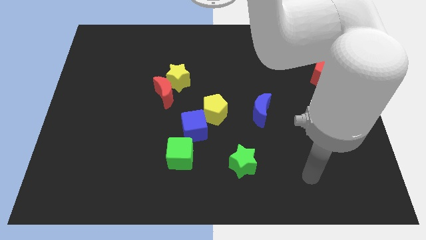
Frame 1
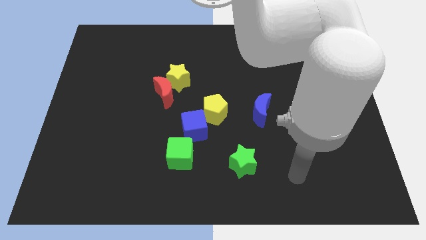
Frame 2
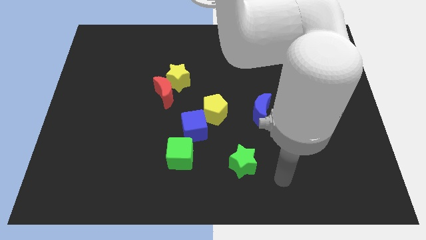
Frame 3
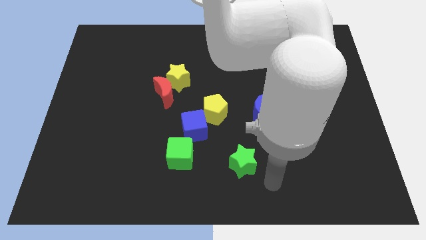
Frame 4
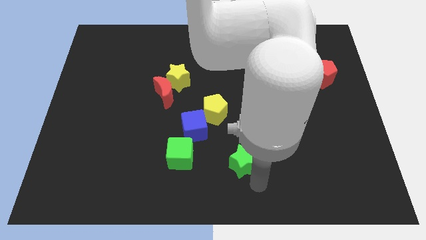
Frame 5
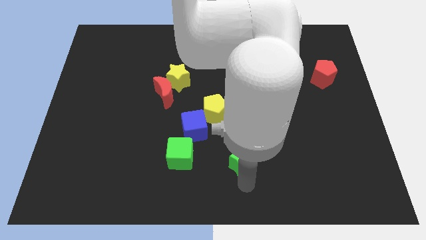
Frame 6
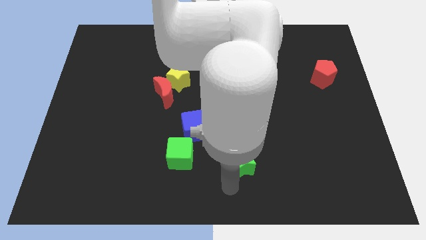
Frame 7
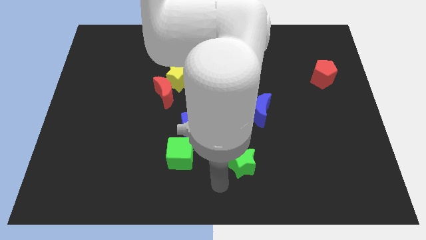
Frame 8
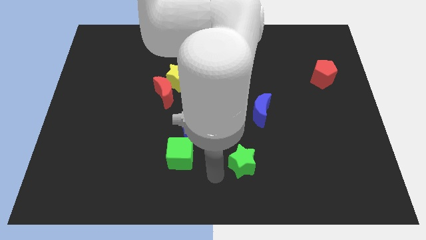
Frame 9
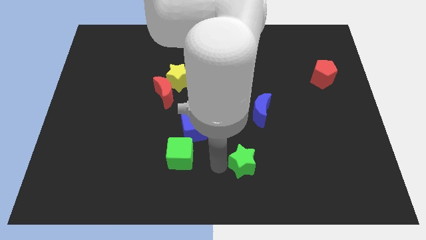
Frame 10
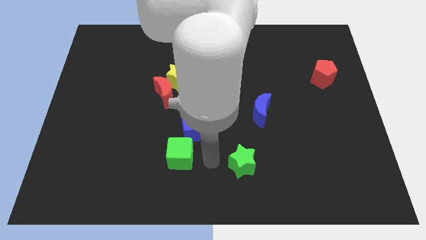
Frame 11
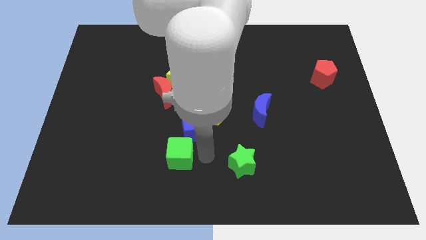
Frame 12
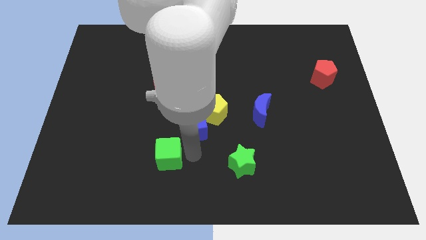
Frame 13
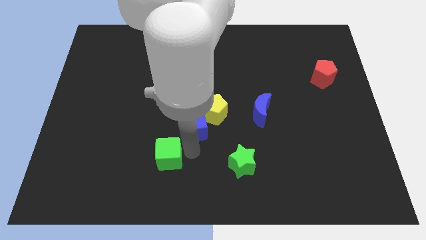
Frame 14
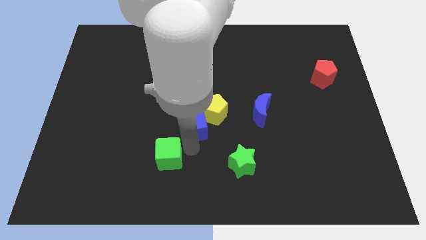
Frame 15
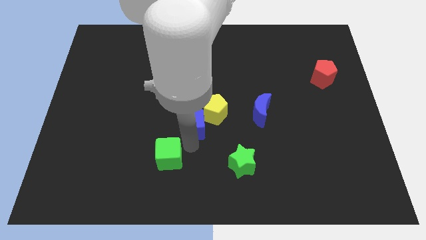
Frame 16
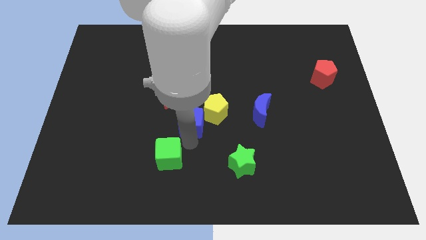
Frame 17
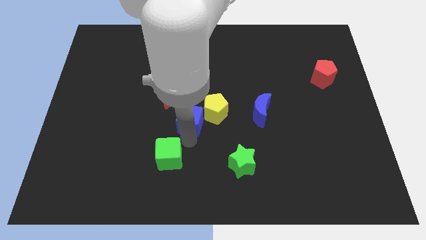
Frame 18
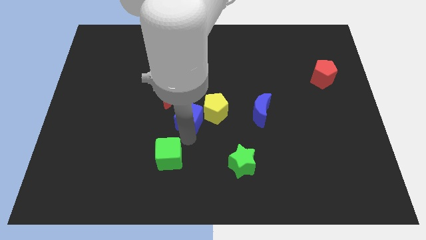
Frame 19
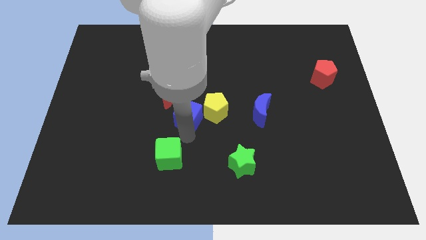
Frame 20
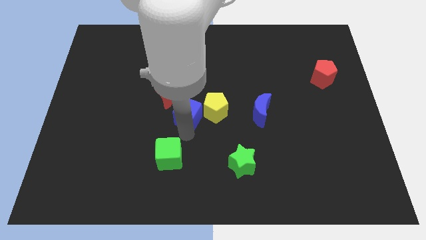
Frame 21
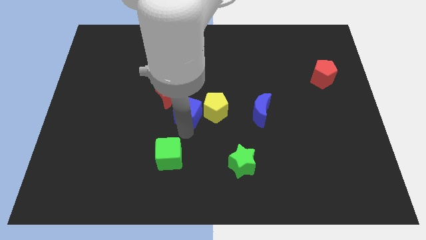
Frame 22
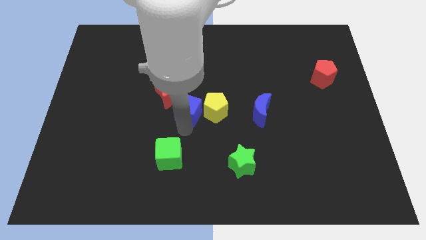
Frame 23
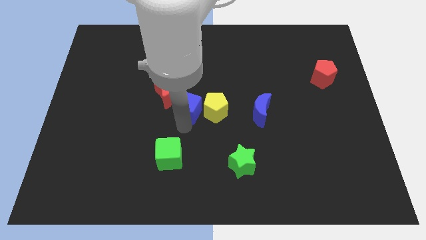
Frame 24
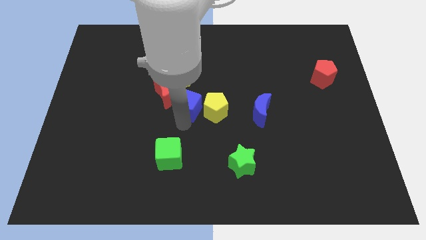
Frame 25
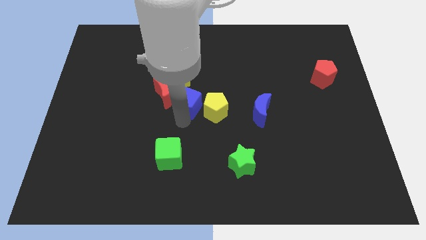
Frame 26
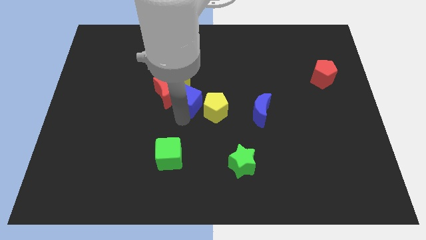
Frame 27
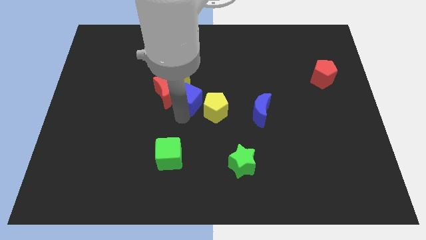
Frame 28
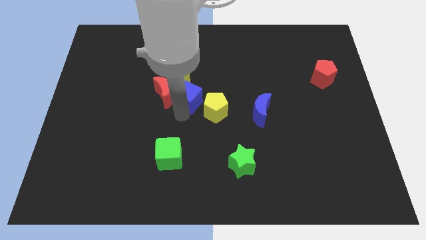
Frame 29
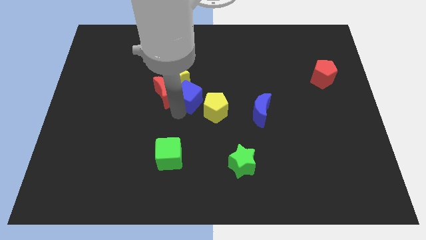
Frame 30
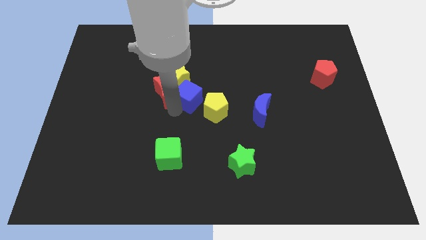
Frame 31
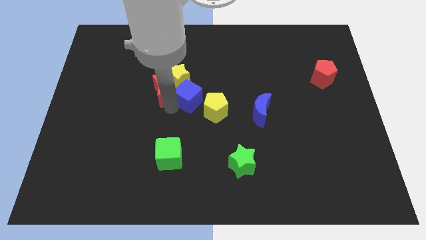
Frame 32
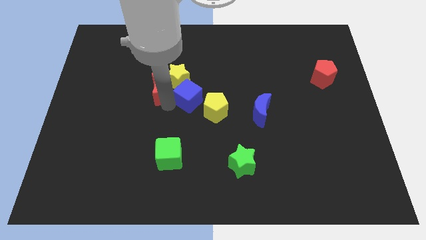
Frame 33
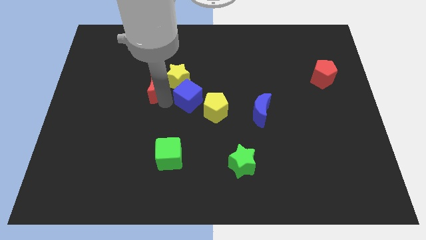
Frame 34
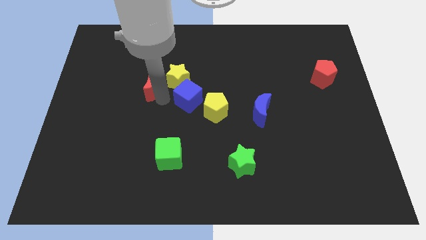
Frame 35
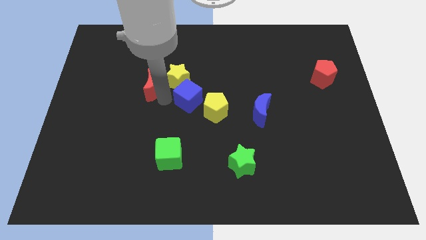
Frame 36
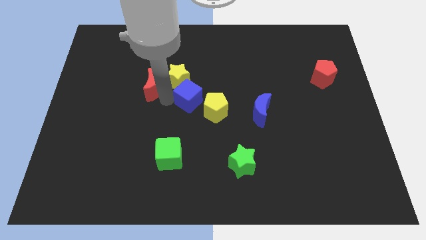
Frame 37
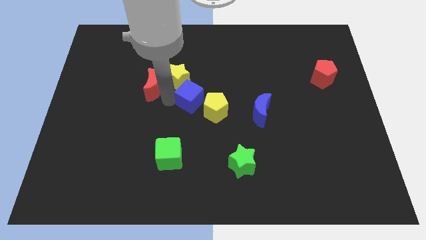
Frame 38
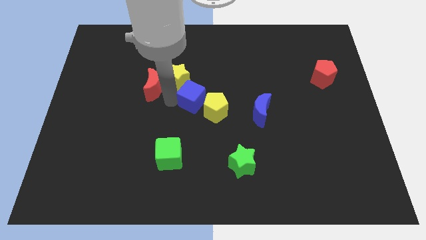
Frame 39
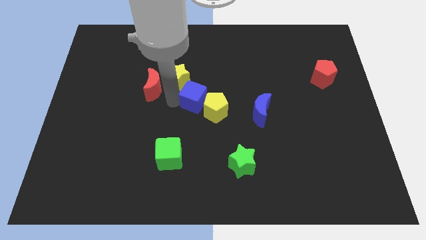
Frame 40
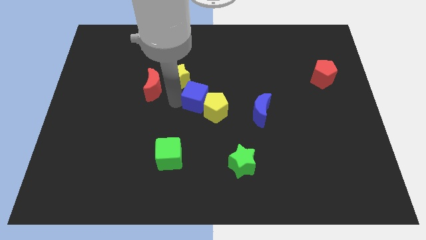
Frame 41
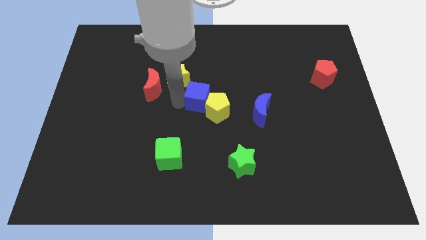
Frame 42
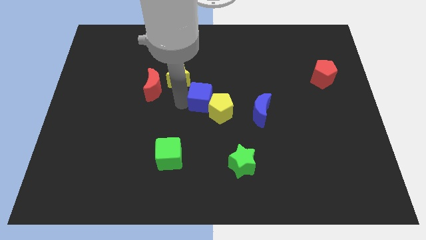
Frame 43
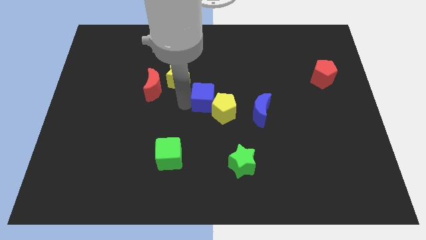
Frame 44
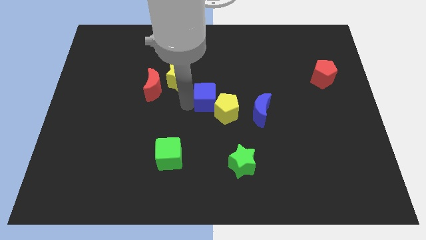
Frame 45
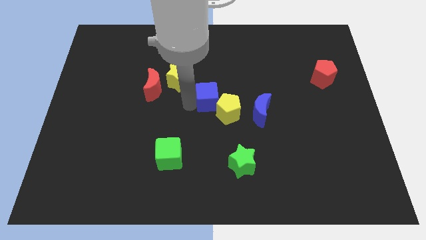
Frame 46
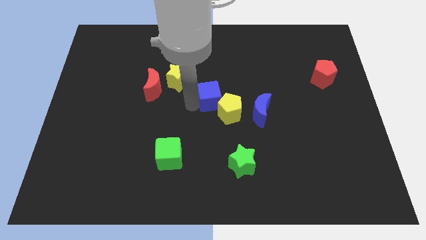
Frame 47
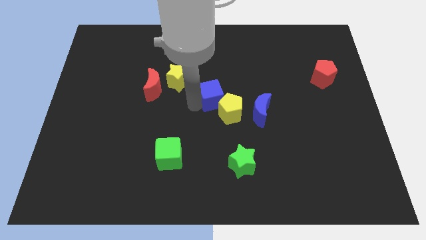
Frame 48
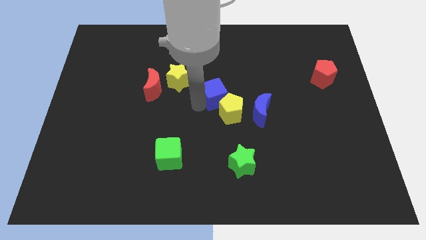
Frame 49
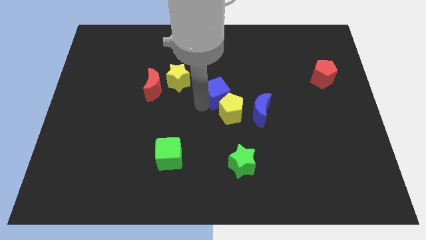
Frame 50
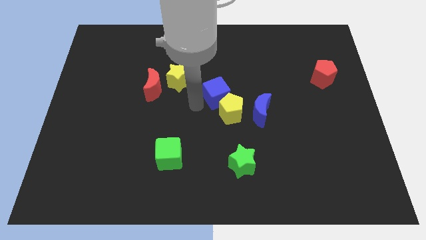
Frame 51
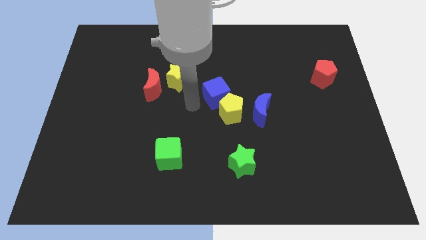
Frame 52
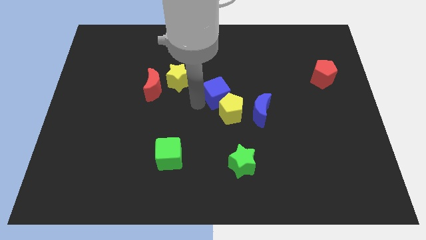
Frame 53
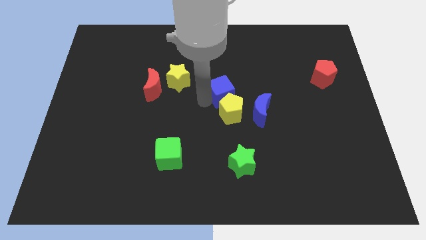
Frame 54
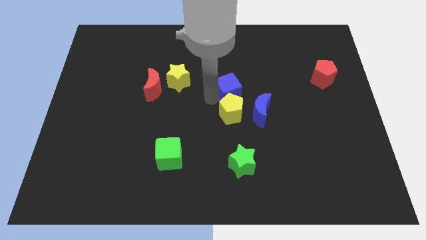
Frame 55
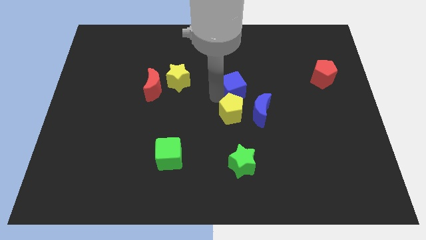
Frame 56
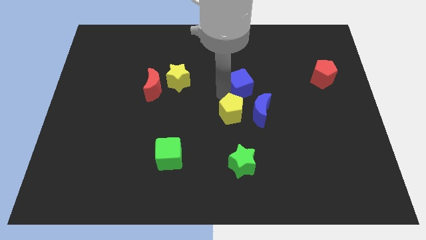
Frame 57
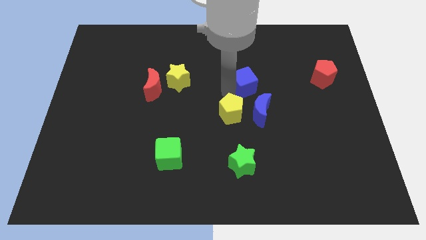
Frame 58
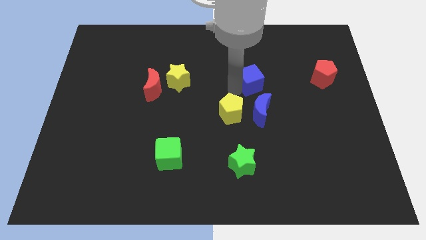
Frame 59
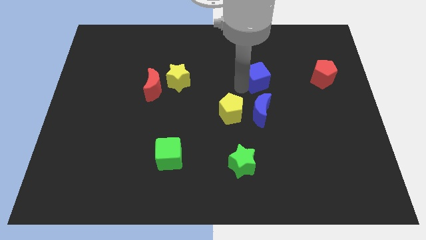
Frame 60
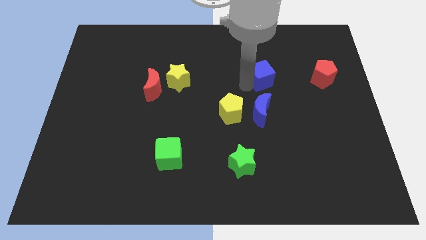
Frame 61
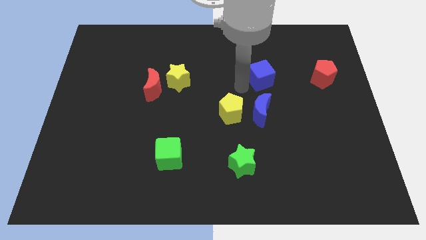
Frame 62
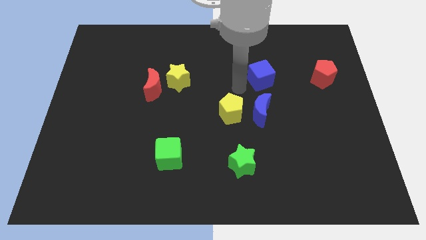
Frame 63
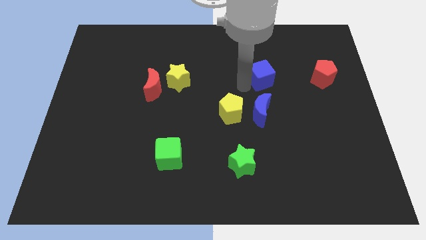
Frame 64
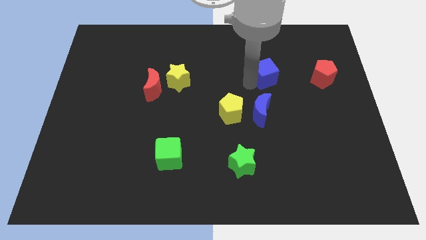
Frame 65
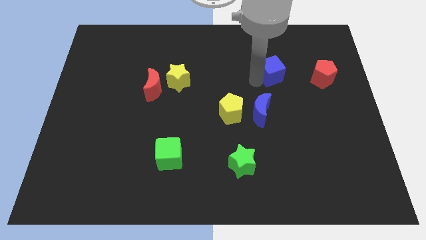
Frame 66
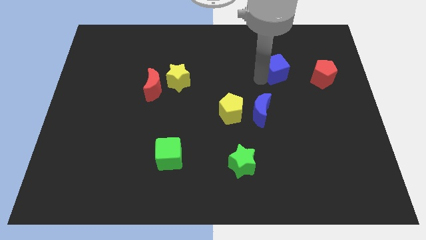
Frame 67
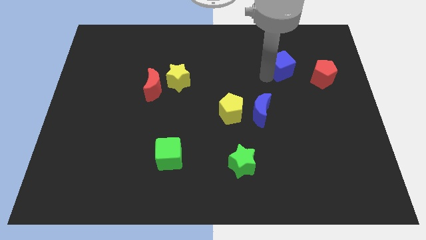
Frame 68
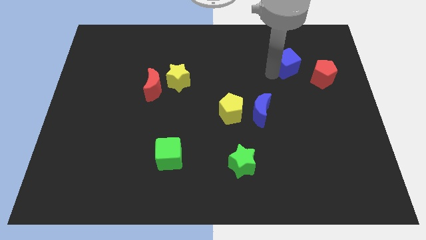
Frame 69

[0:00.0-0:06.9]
move the blue cube to the top left side of the red pentagon

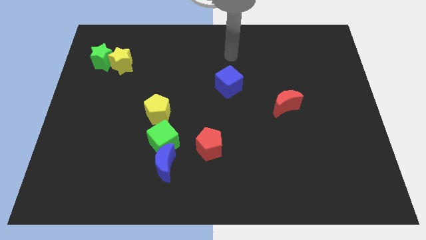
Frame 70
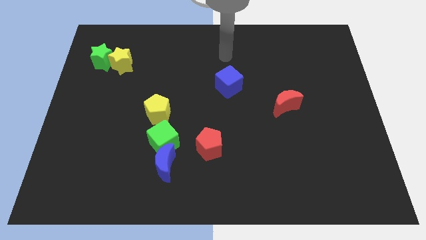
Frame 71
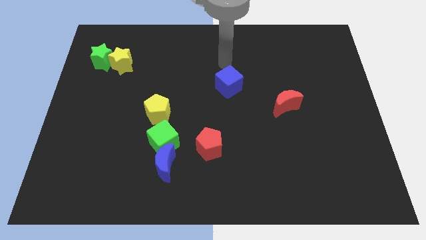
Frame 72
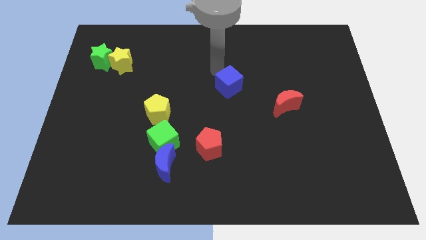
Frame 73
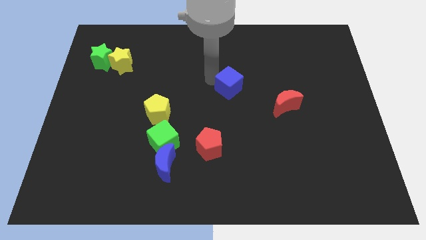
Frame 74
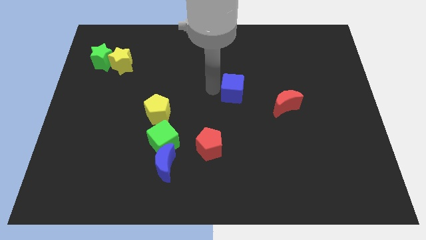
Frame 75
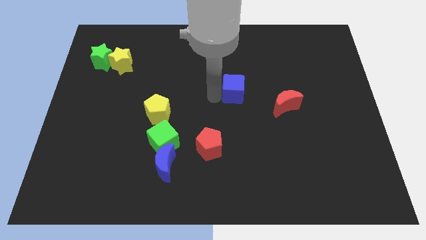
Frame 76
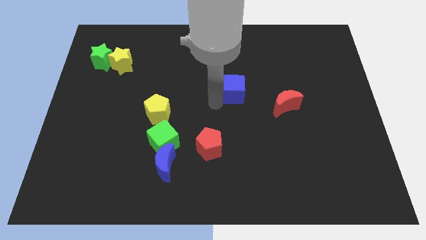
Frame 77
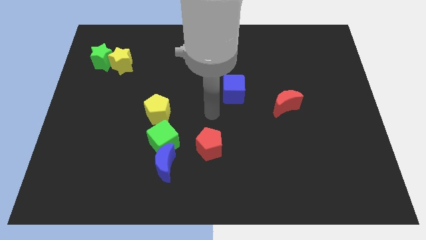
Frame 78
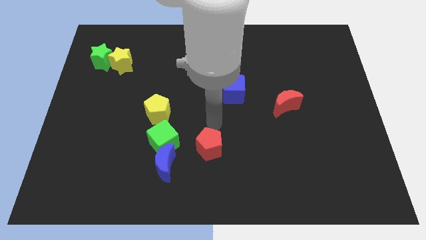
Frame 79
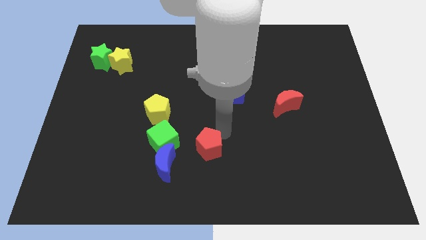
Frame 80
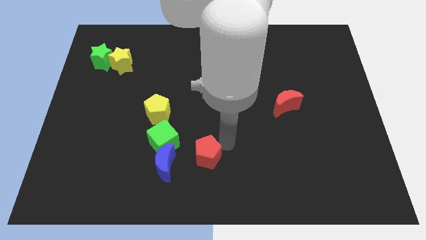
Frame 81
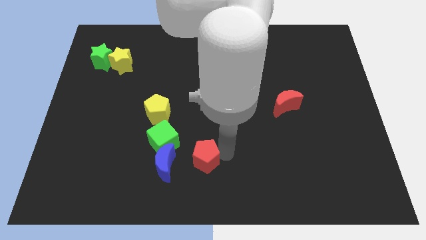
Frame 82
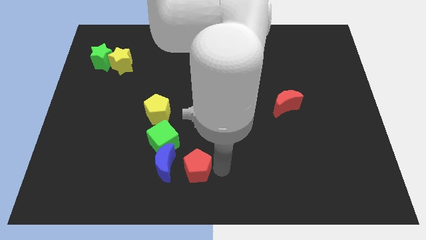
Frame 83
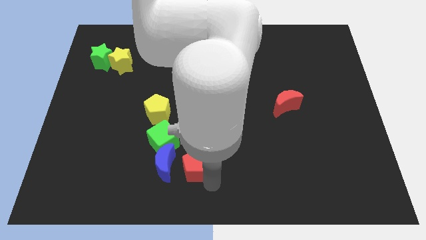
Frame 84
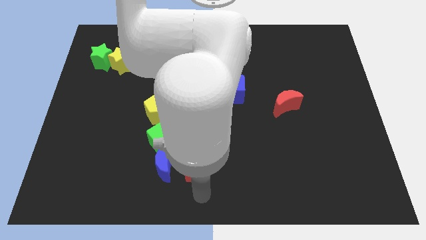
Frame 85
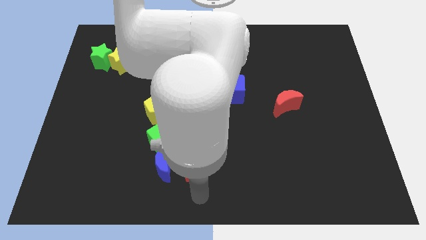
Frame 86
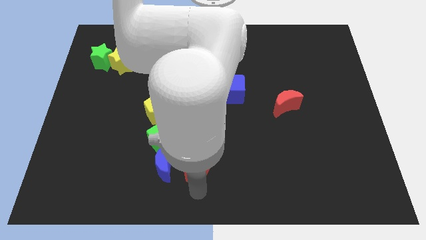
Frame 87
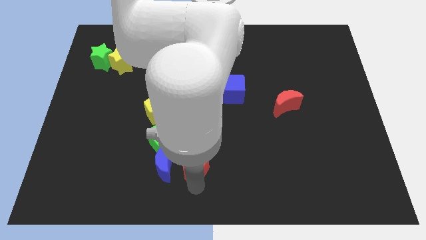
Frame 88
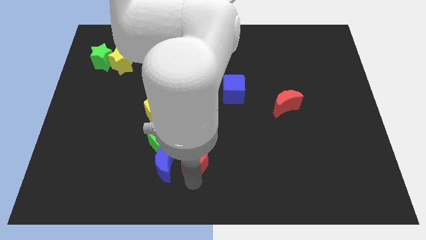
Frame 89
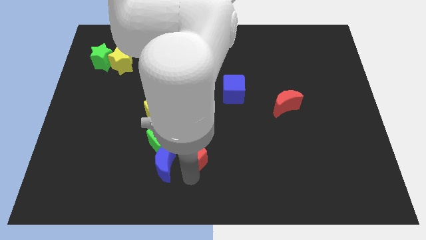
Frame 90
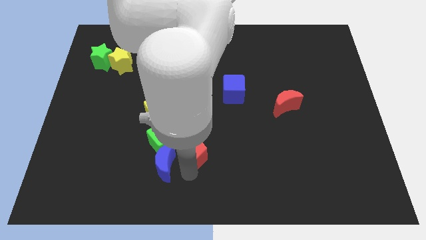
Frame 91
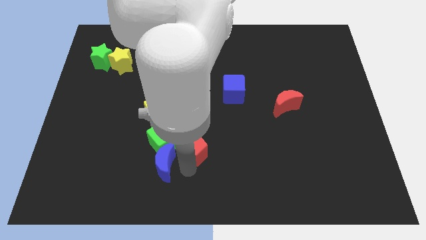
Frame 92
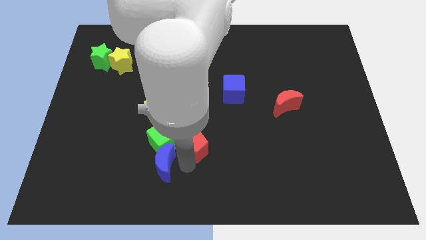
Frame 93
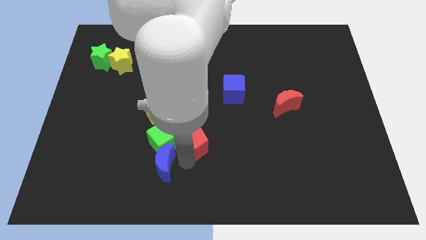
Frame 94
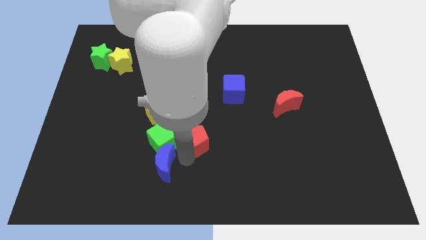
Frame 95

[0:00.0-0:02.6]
put the red pentagon to the top right side of the green cube
